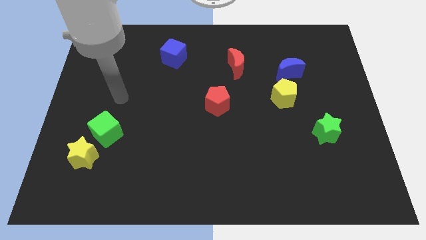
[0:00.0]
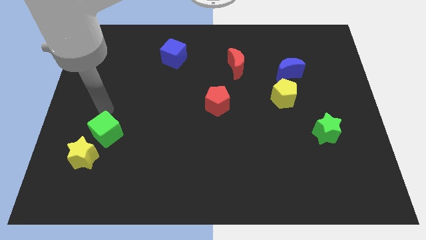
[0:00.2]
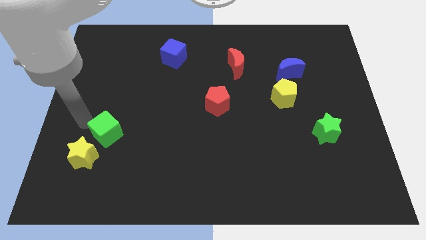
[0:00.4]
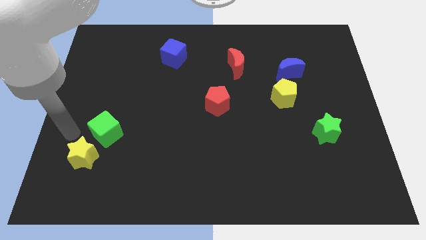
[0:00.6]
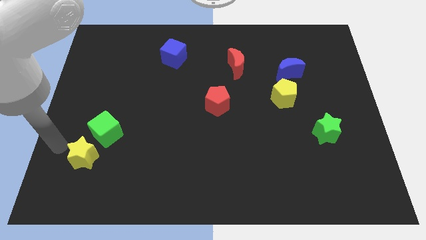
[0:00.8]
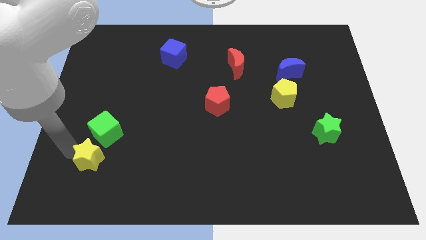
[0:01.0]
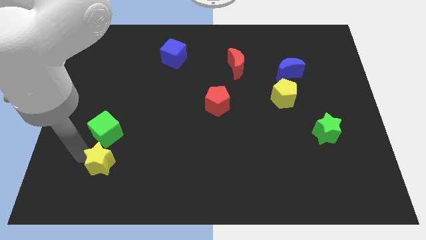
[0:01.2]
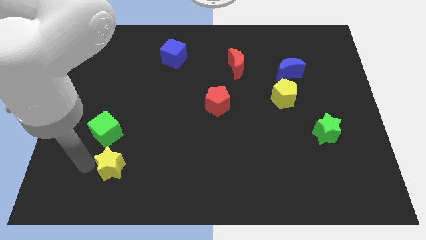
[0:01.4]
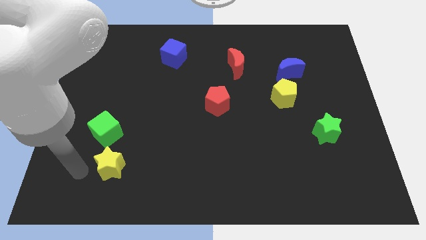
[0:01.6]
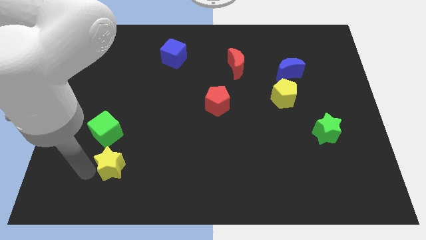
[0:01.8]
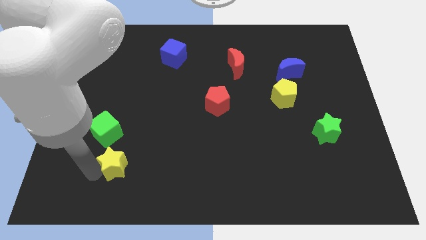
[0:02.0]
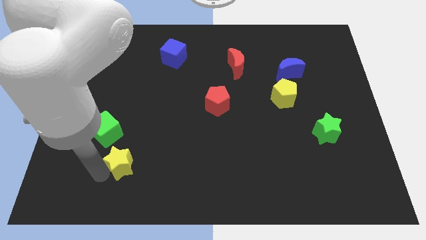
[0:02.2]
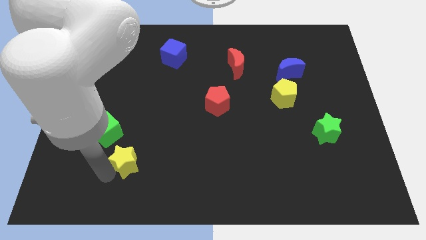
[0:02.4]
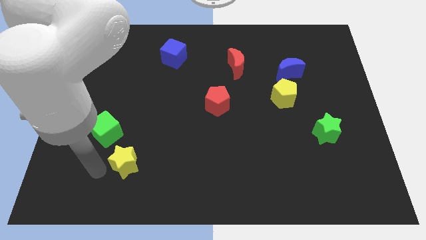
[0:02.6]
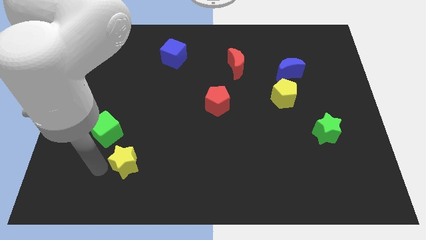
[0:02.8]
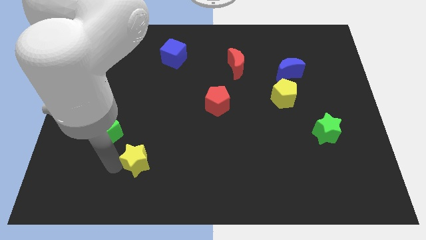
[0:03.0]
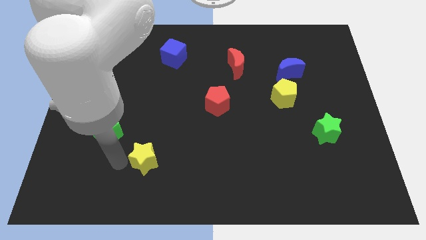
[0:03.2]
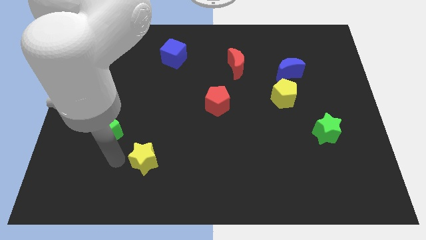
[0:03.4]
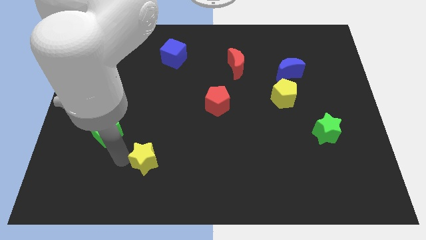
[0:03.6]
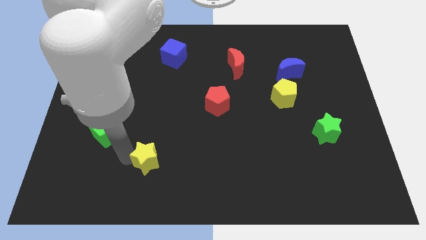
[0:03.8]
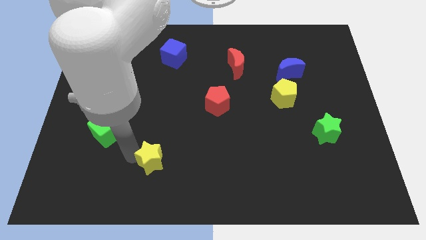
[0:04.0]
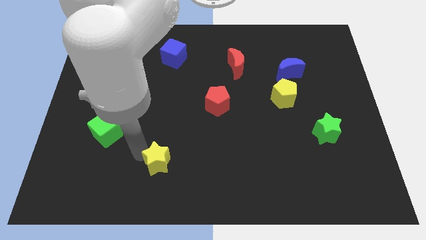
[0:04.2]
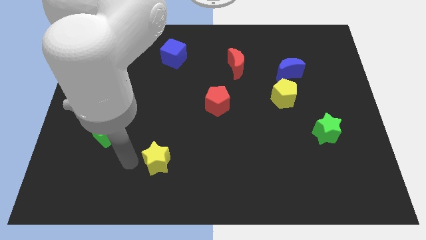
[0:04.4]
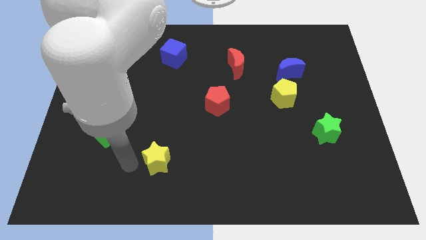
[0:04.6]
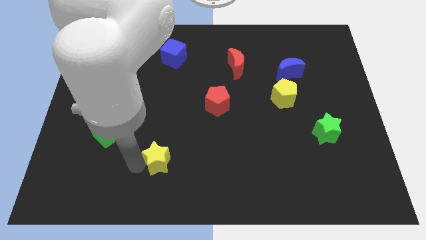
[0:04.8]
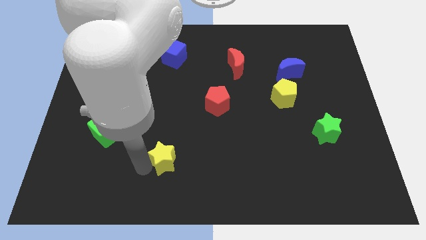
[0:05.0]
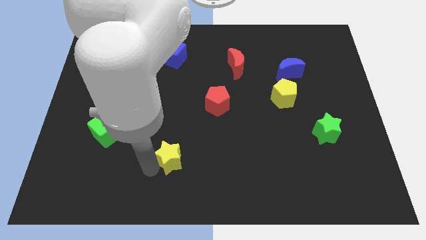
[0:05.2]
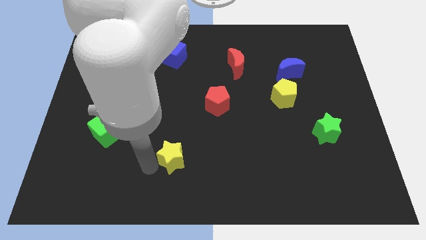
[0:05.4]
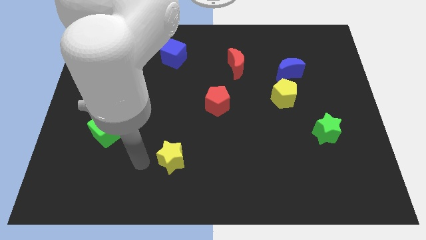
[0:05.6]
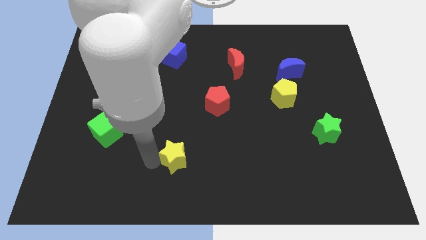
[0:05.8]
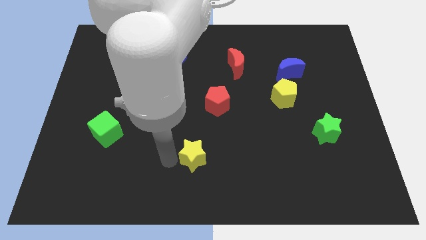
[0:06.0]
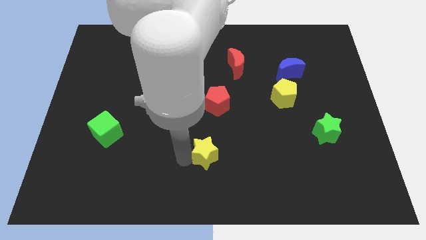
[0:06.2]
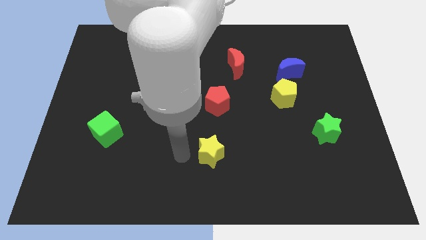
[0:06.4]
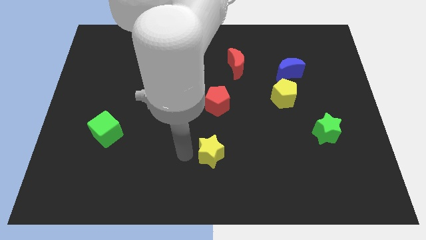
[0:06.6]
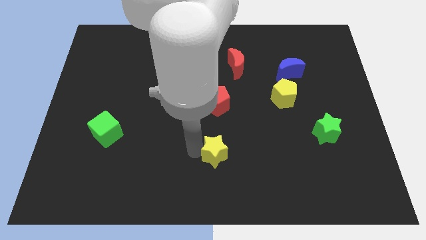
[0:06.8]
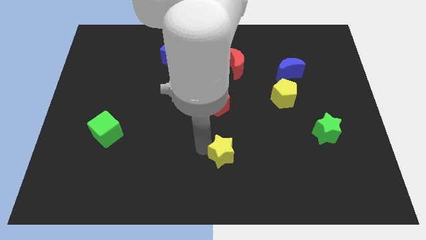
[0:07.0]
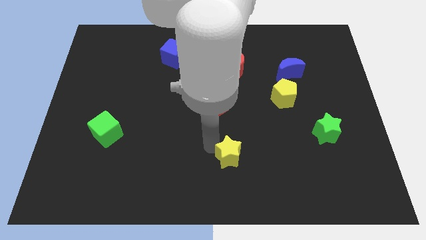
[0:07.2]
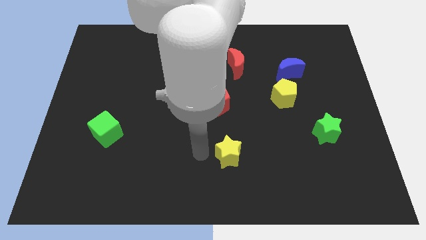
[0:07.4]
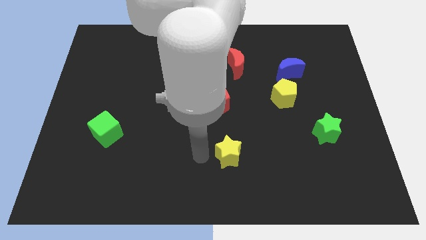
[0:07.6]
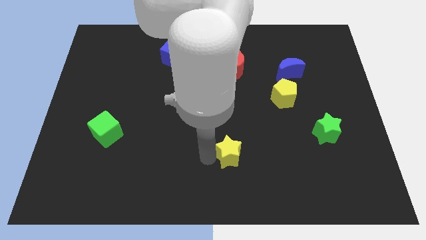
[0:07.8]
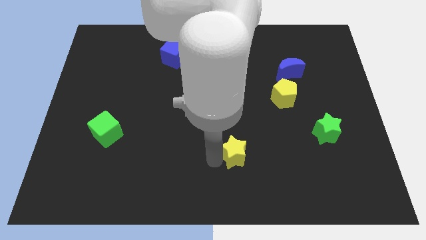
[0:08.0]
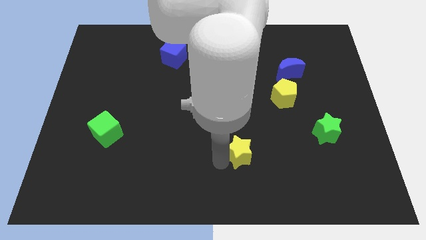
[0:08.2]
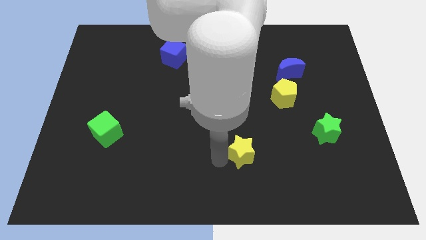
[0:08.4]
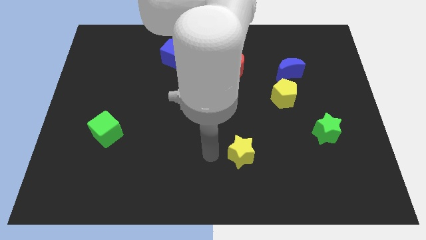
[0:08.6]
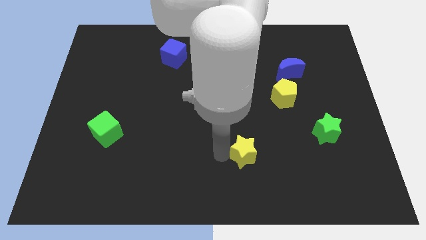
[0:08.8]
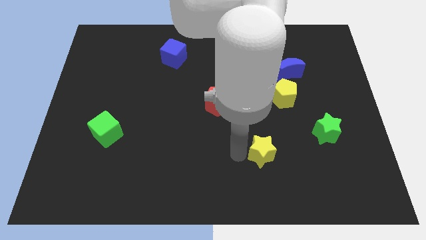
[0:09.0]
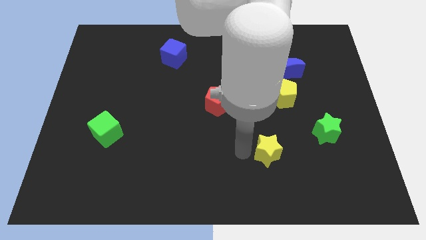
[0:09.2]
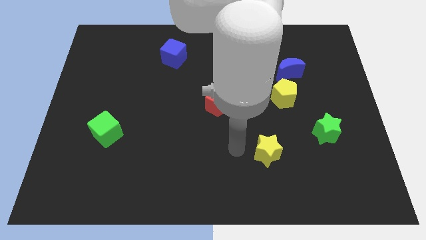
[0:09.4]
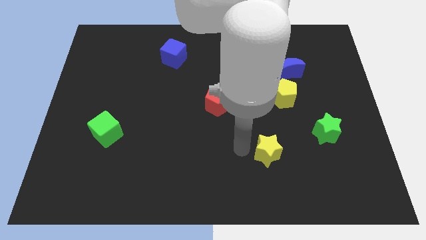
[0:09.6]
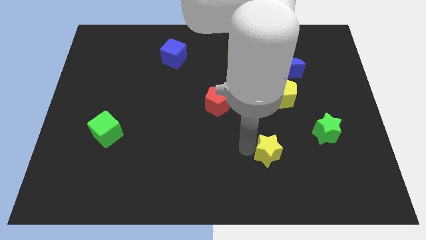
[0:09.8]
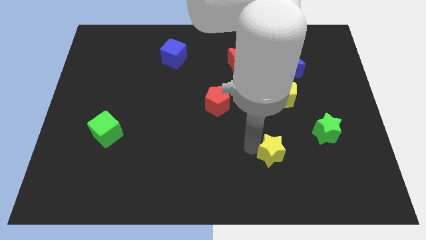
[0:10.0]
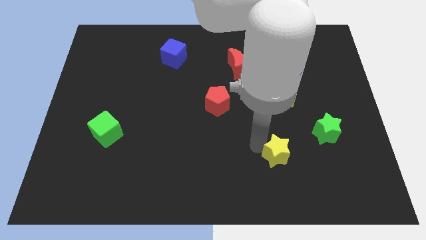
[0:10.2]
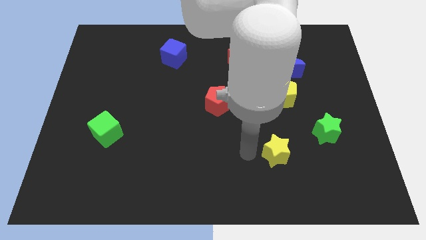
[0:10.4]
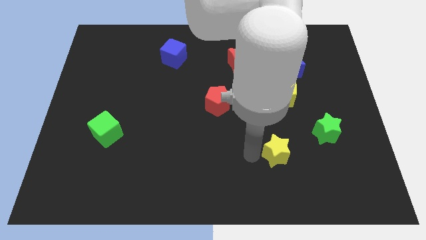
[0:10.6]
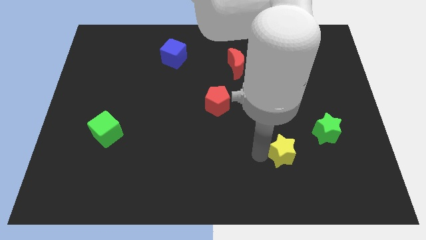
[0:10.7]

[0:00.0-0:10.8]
put the yellow star diagonally down and to the left of the green star

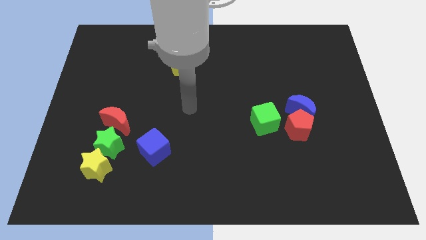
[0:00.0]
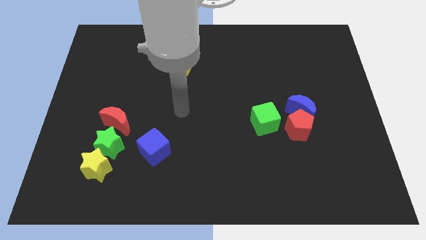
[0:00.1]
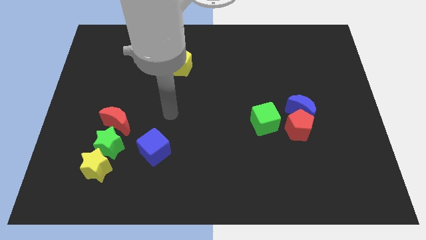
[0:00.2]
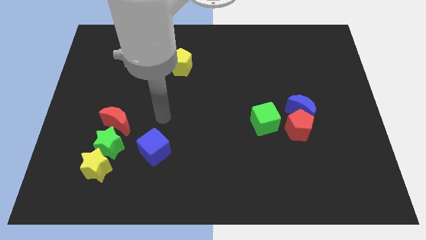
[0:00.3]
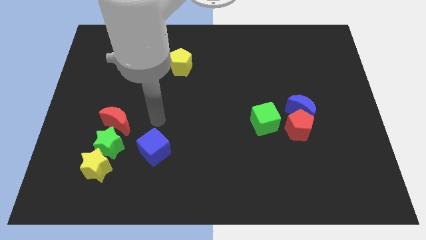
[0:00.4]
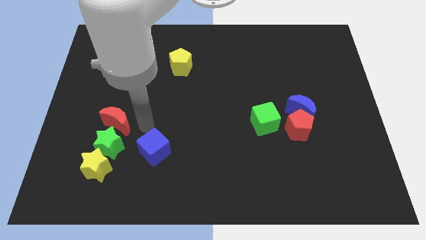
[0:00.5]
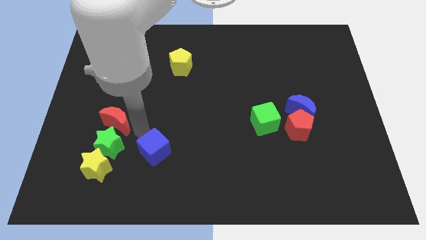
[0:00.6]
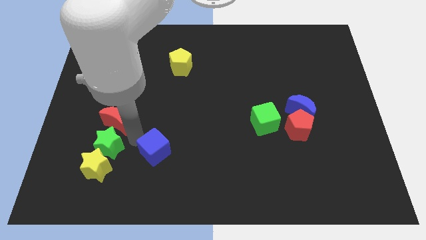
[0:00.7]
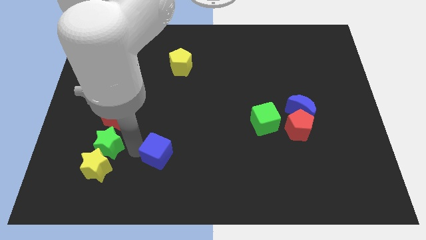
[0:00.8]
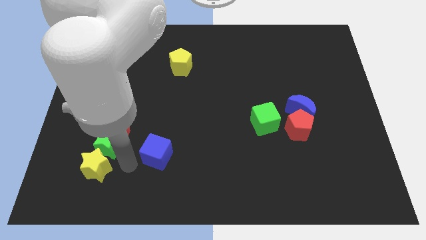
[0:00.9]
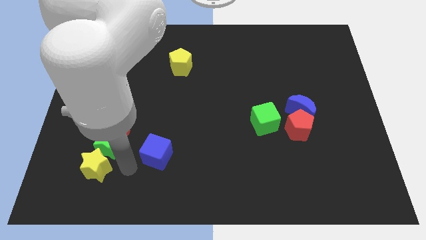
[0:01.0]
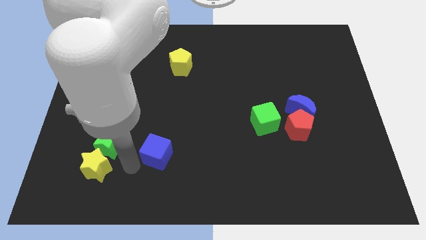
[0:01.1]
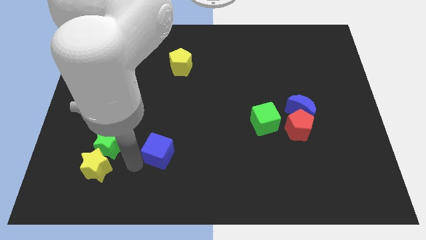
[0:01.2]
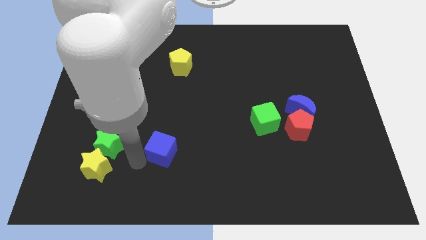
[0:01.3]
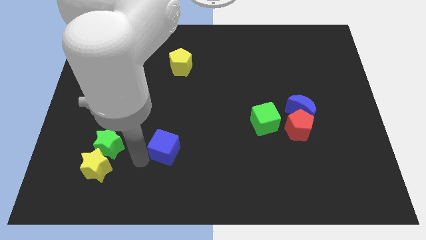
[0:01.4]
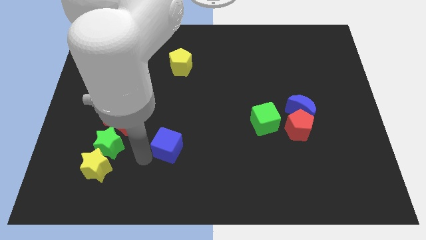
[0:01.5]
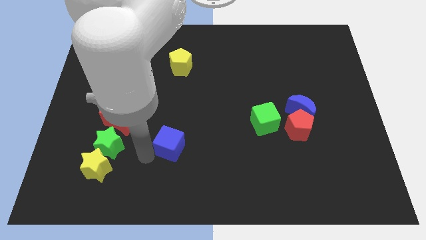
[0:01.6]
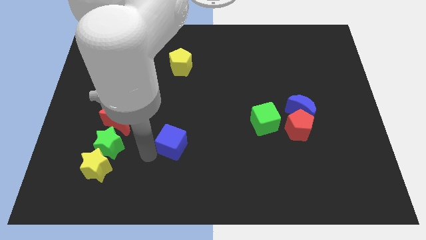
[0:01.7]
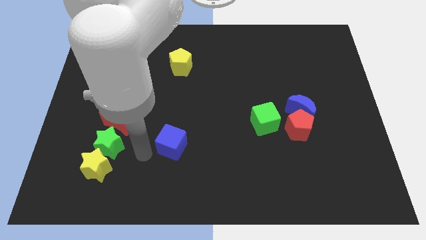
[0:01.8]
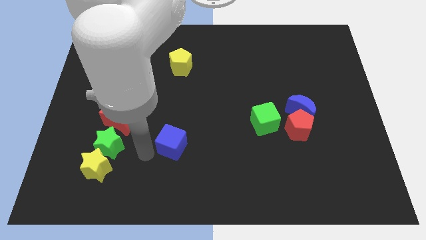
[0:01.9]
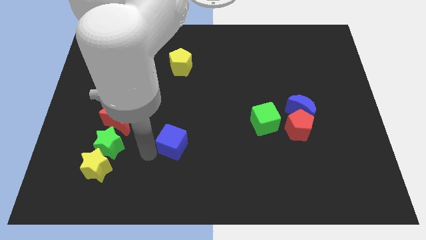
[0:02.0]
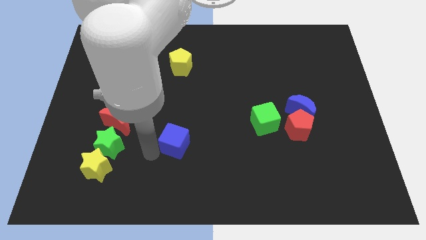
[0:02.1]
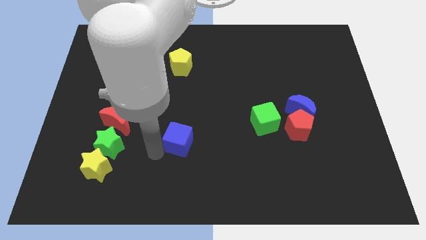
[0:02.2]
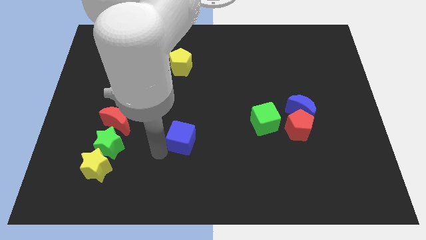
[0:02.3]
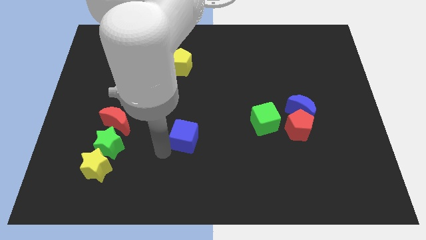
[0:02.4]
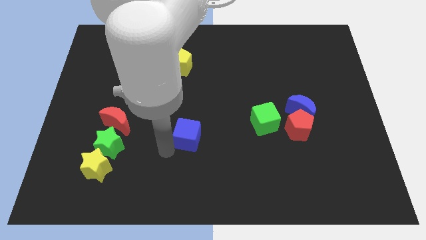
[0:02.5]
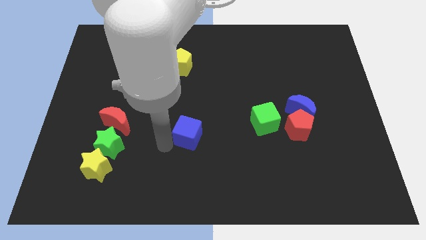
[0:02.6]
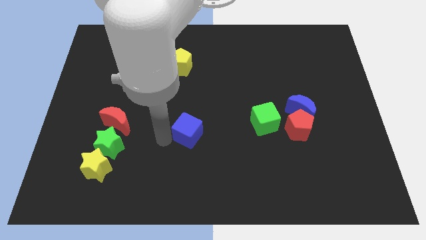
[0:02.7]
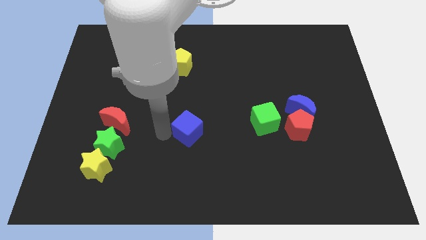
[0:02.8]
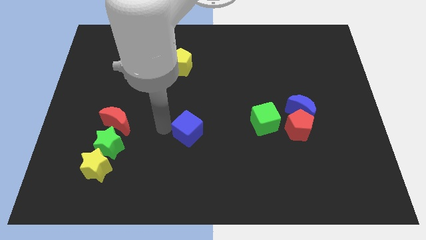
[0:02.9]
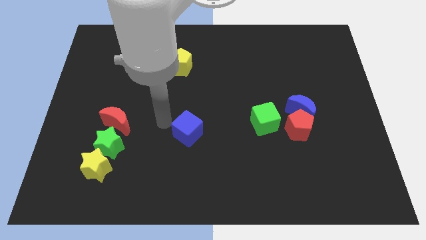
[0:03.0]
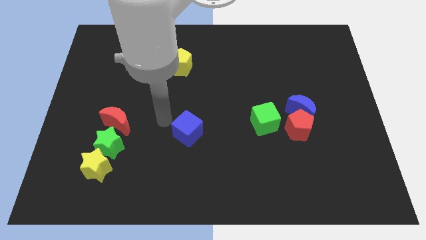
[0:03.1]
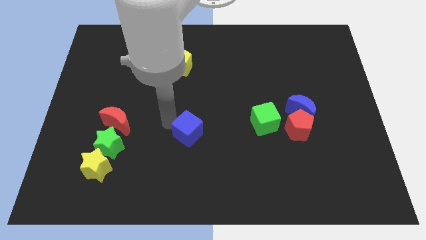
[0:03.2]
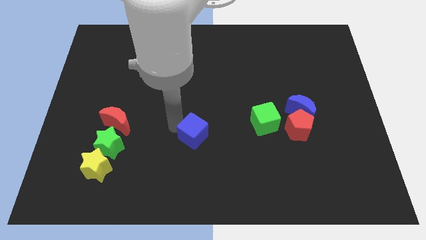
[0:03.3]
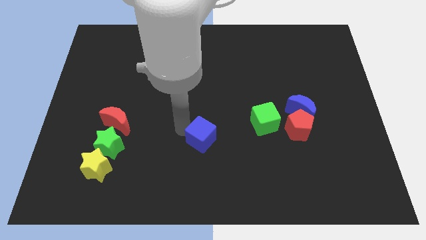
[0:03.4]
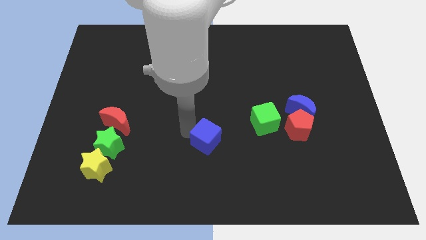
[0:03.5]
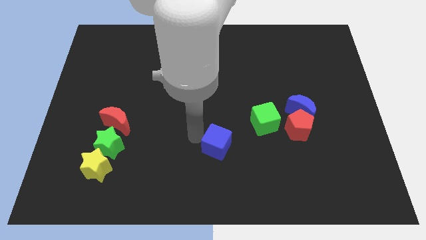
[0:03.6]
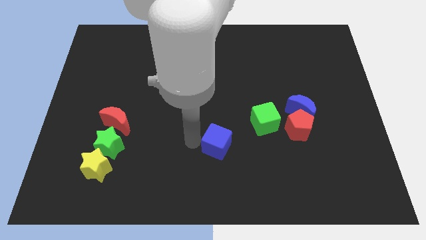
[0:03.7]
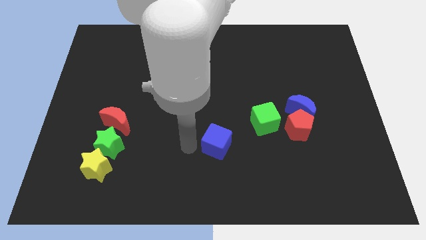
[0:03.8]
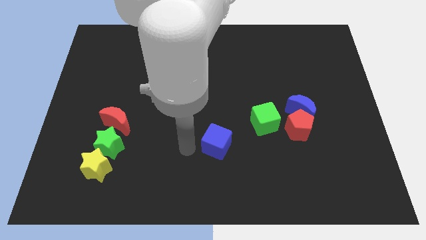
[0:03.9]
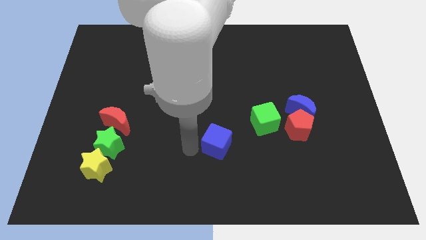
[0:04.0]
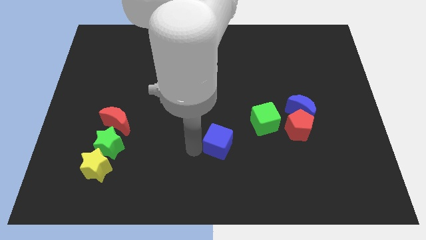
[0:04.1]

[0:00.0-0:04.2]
move the blue cube to the bottom left of the green cube
